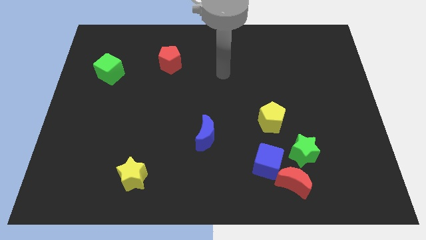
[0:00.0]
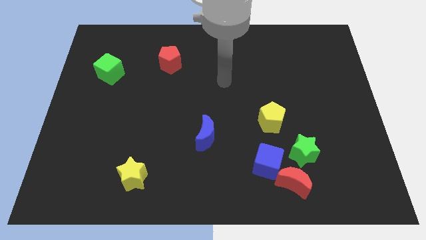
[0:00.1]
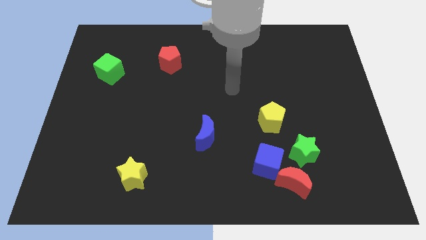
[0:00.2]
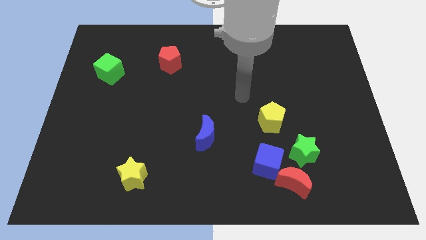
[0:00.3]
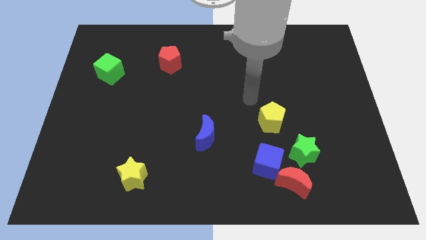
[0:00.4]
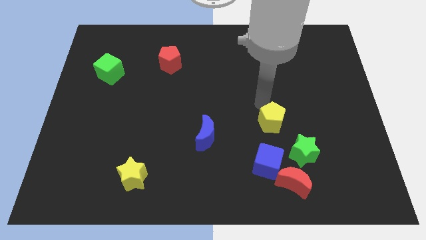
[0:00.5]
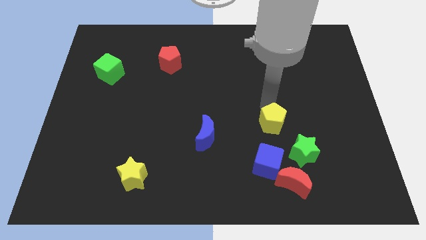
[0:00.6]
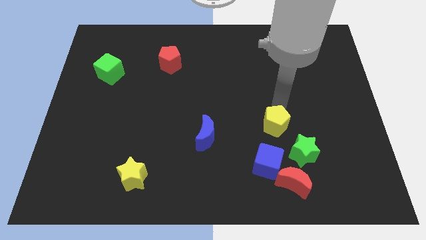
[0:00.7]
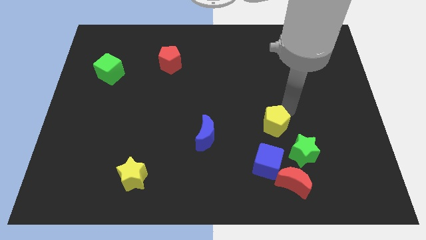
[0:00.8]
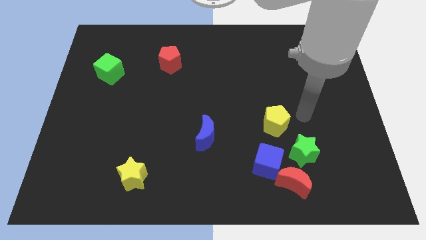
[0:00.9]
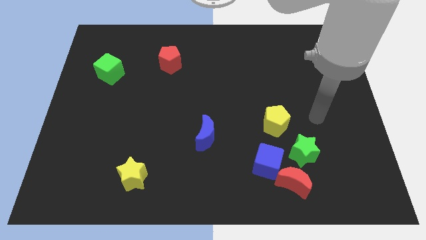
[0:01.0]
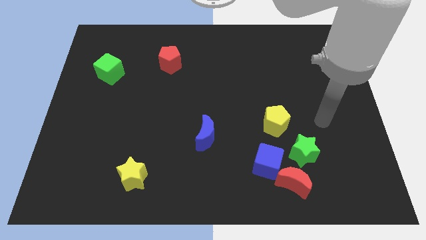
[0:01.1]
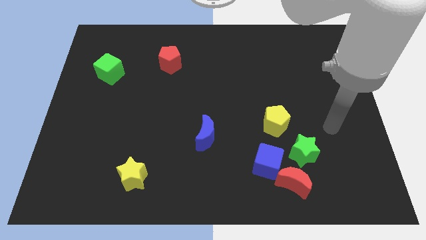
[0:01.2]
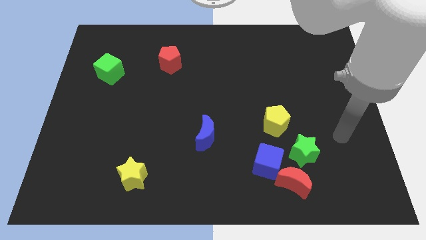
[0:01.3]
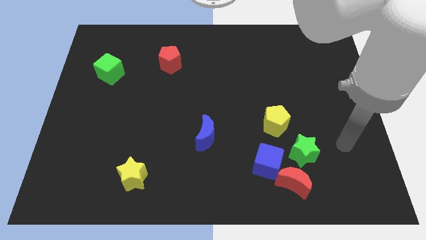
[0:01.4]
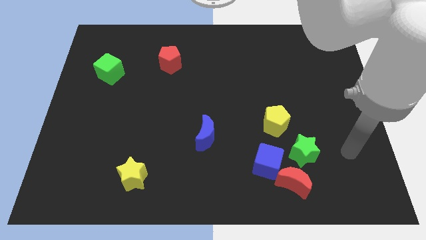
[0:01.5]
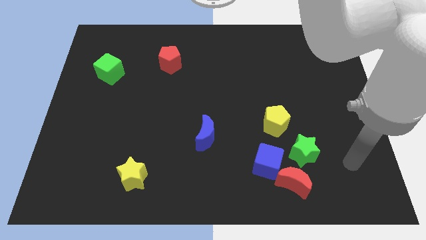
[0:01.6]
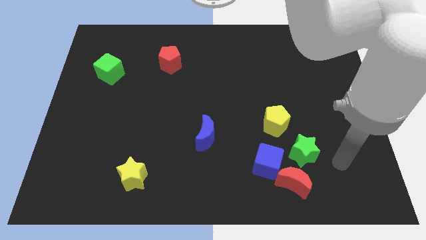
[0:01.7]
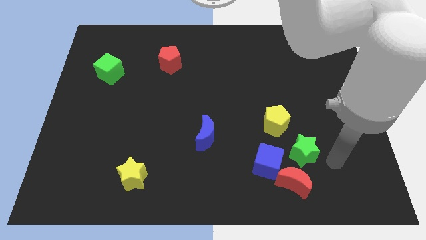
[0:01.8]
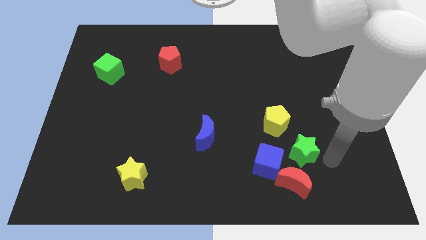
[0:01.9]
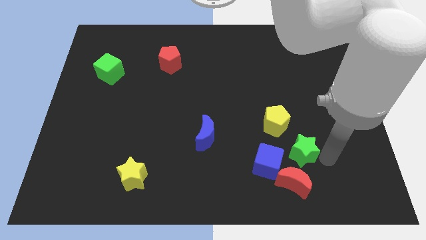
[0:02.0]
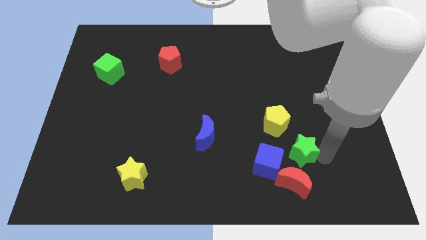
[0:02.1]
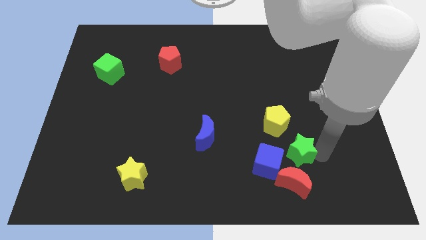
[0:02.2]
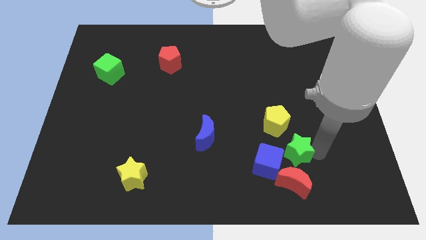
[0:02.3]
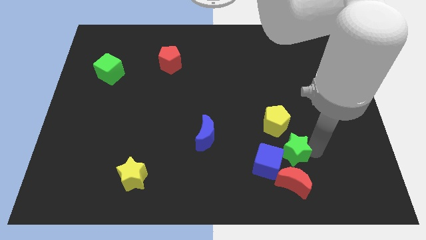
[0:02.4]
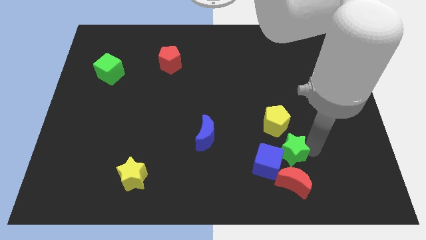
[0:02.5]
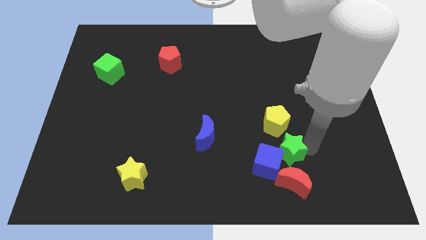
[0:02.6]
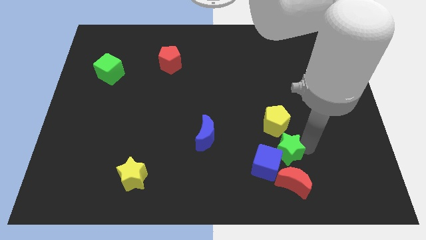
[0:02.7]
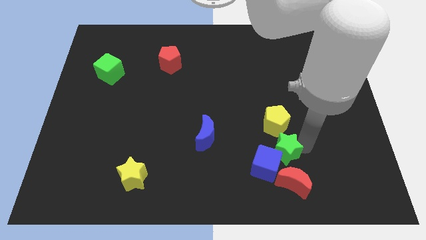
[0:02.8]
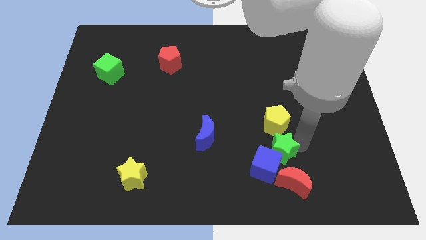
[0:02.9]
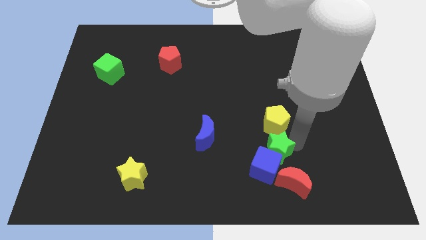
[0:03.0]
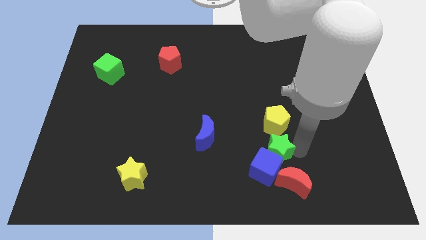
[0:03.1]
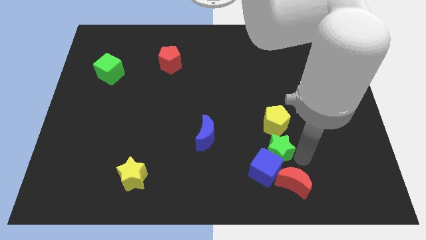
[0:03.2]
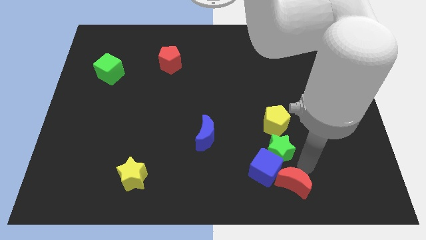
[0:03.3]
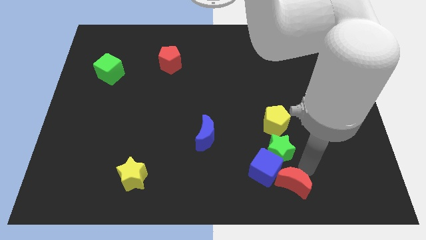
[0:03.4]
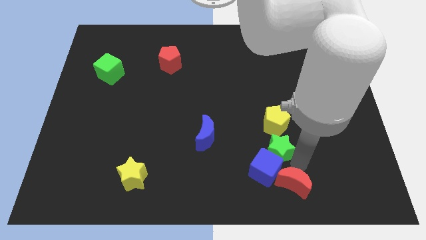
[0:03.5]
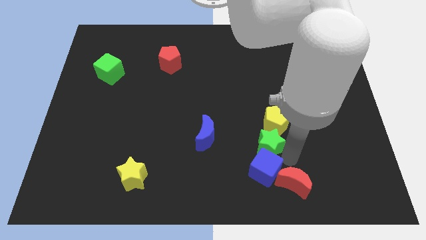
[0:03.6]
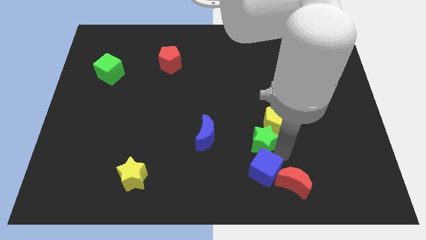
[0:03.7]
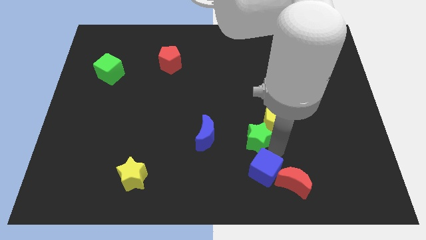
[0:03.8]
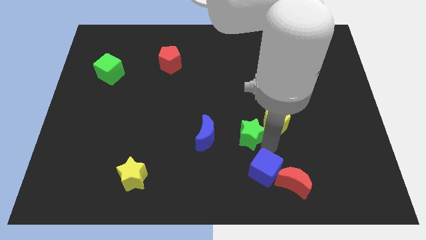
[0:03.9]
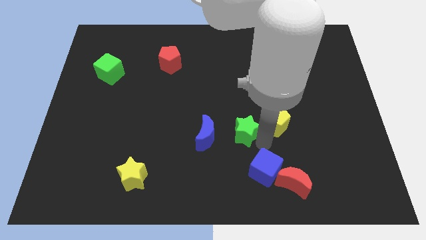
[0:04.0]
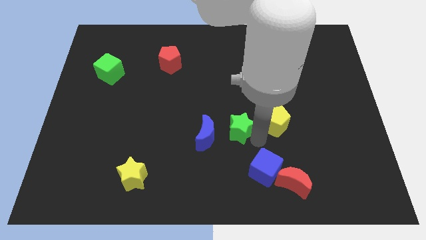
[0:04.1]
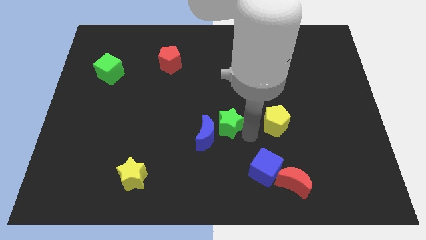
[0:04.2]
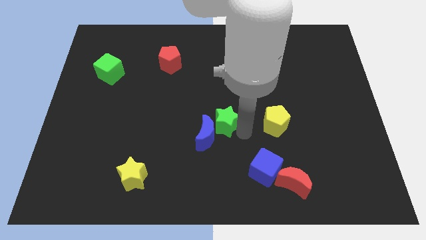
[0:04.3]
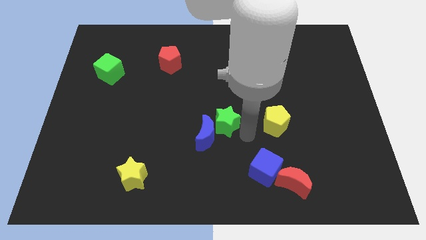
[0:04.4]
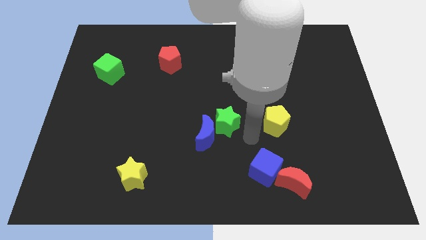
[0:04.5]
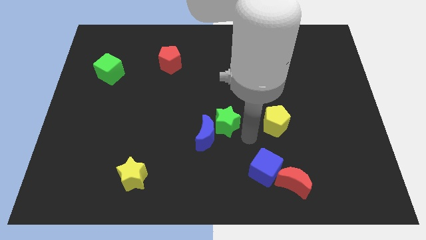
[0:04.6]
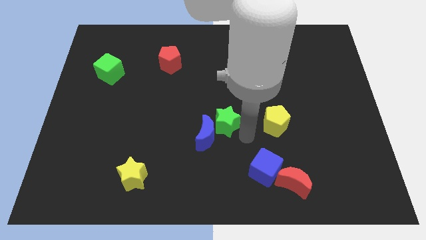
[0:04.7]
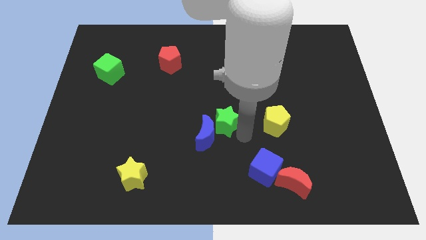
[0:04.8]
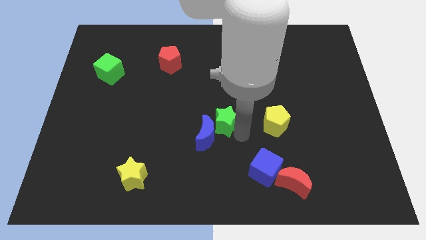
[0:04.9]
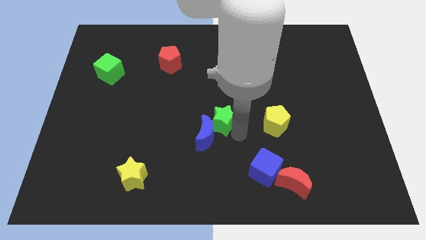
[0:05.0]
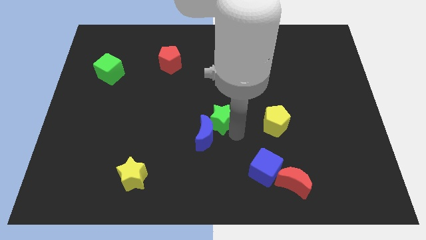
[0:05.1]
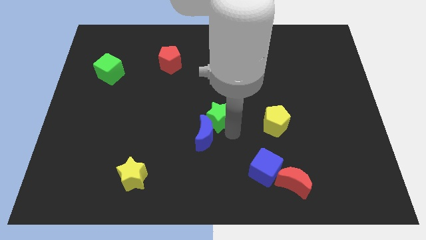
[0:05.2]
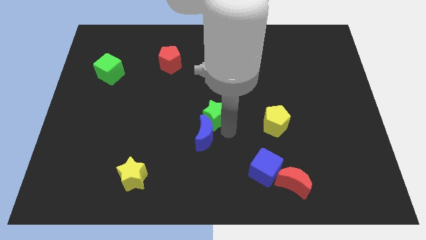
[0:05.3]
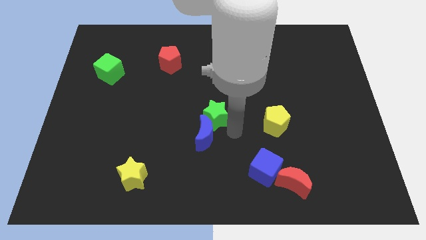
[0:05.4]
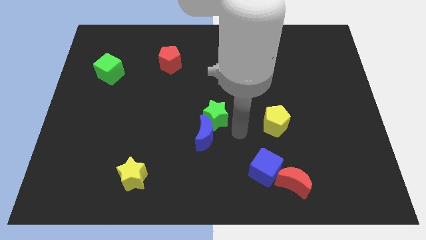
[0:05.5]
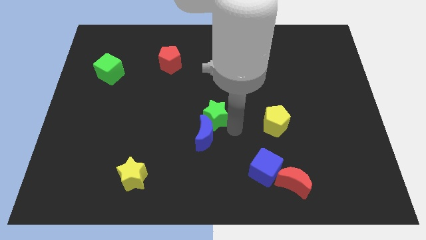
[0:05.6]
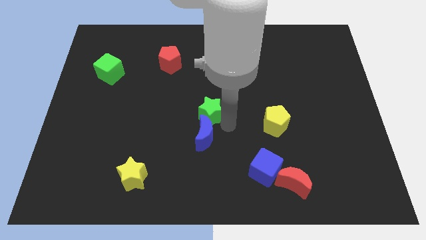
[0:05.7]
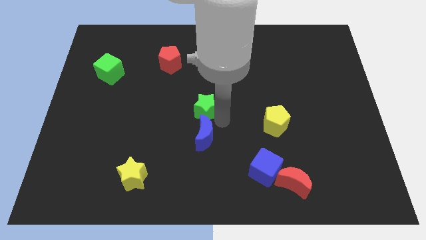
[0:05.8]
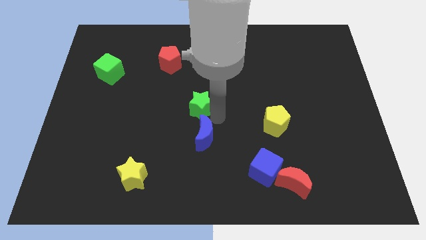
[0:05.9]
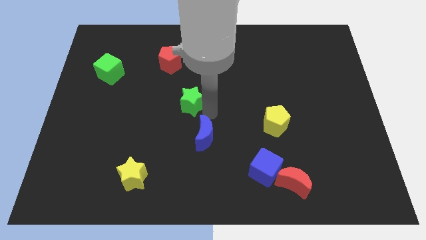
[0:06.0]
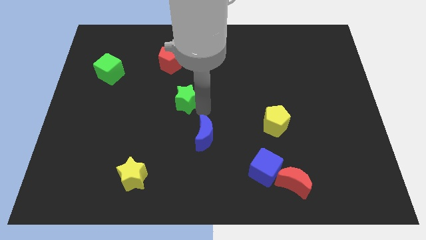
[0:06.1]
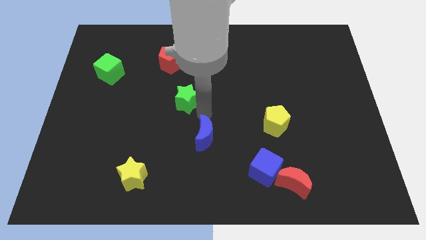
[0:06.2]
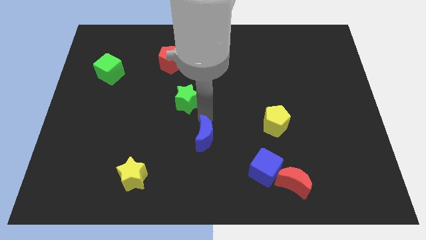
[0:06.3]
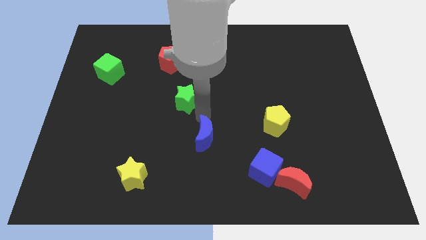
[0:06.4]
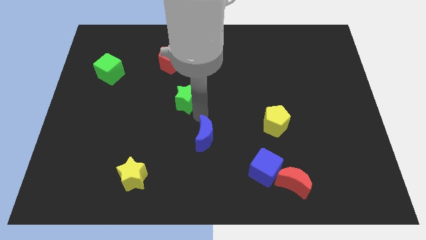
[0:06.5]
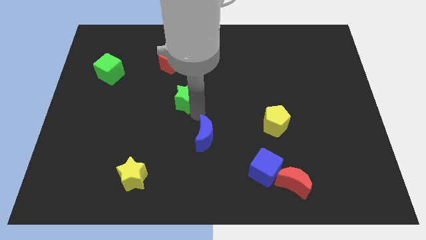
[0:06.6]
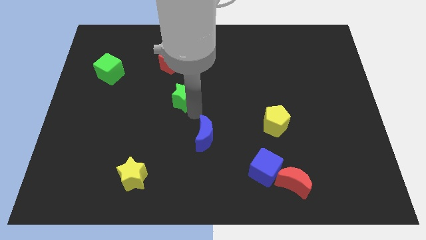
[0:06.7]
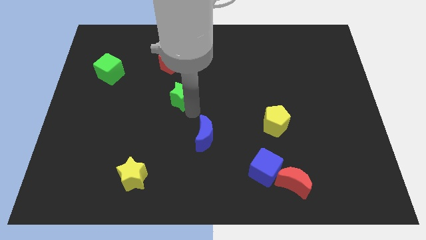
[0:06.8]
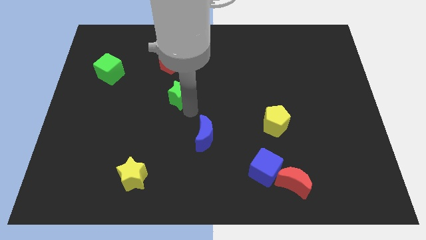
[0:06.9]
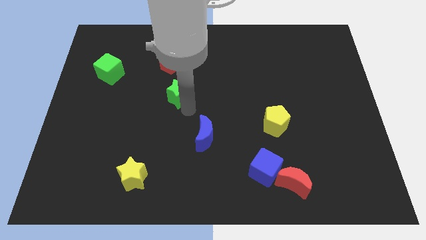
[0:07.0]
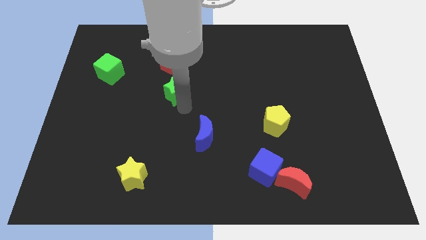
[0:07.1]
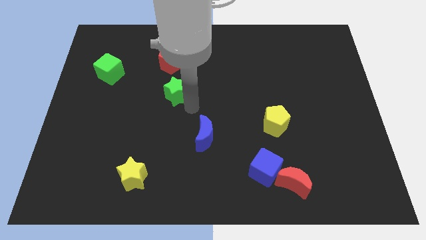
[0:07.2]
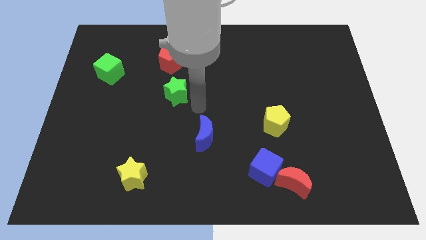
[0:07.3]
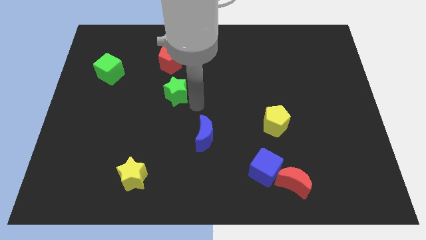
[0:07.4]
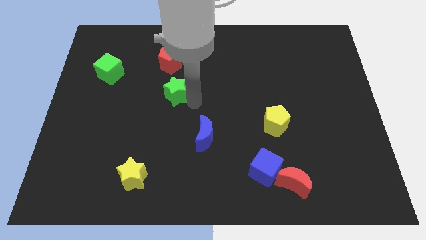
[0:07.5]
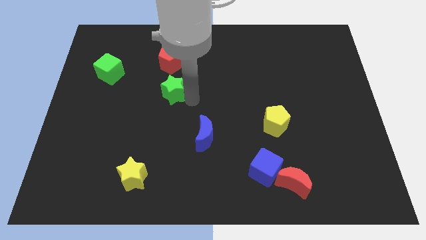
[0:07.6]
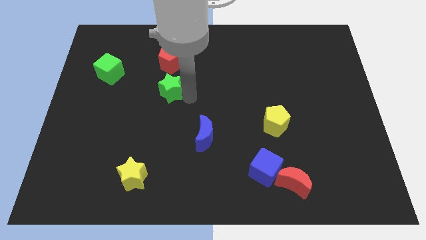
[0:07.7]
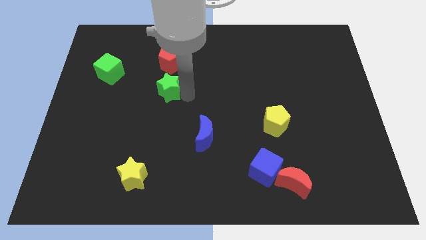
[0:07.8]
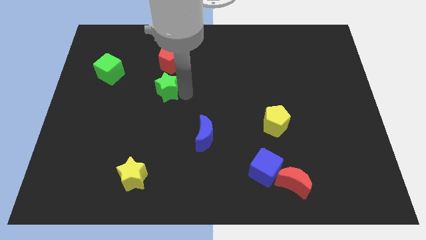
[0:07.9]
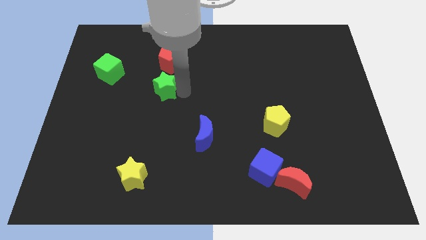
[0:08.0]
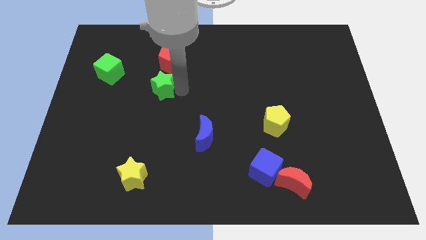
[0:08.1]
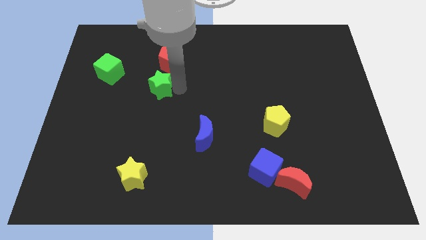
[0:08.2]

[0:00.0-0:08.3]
put the green star diagonally down and to the left of the red pentagon
